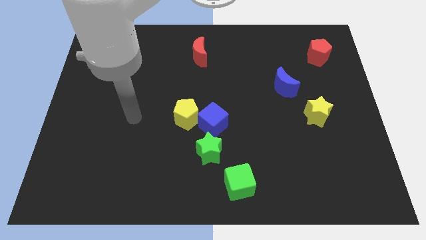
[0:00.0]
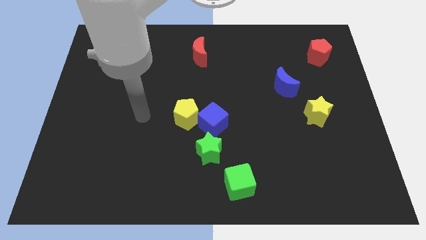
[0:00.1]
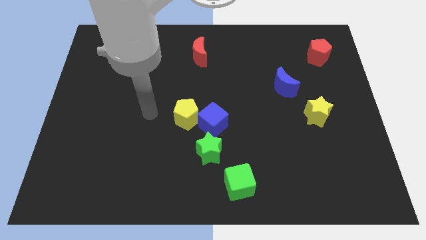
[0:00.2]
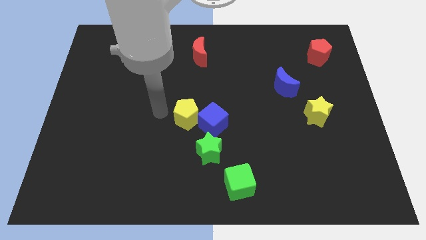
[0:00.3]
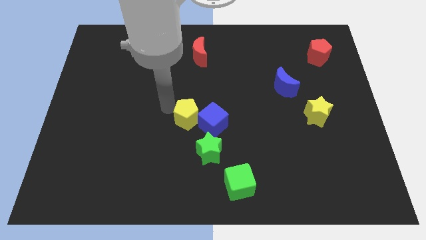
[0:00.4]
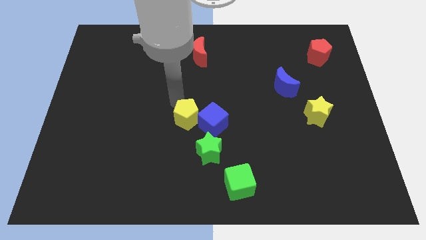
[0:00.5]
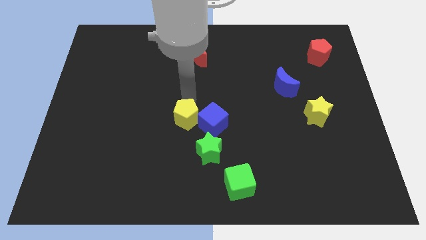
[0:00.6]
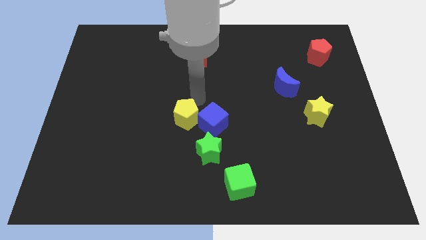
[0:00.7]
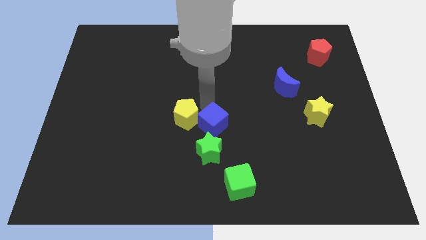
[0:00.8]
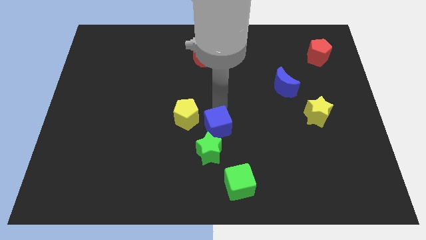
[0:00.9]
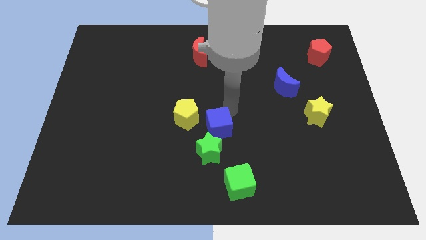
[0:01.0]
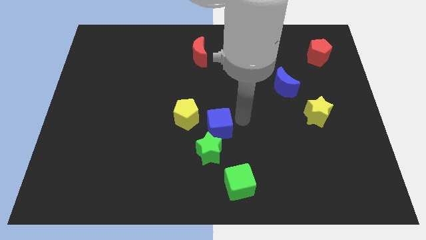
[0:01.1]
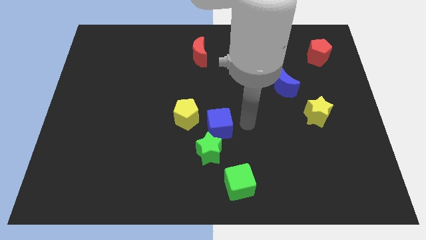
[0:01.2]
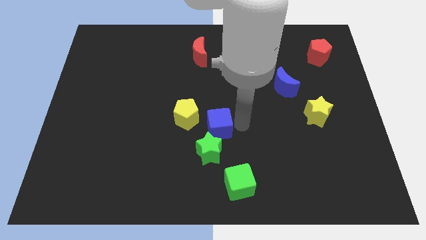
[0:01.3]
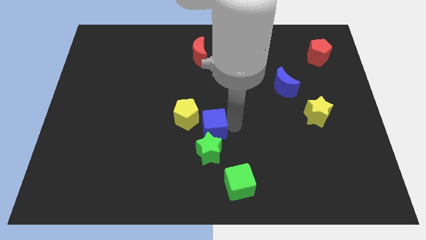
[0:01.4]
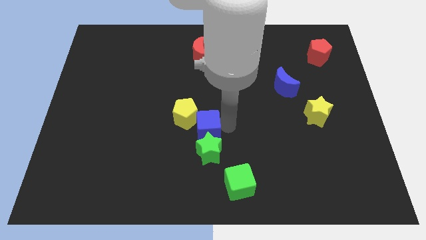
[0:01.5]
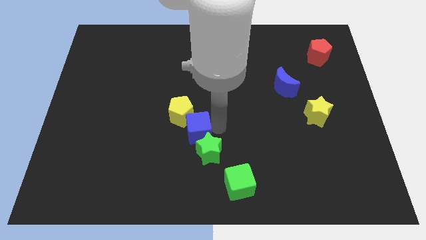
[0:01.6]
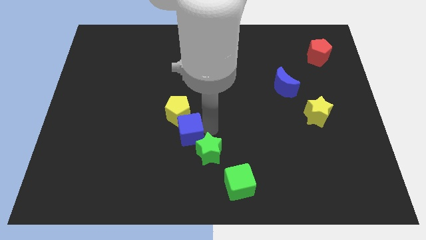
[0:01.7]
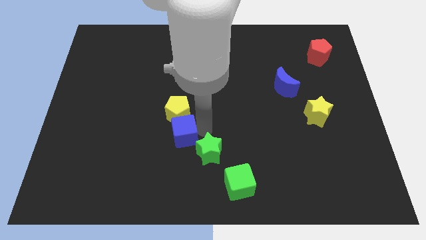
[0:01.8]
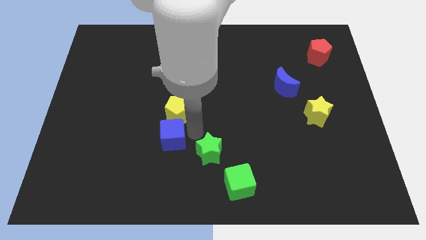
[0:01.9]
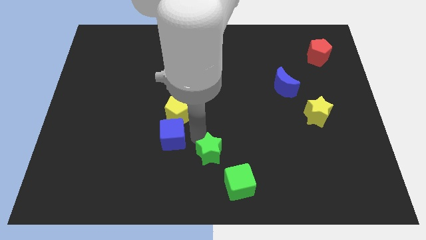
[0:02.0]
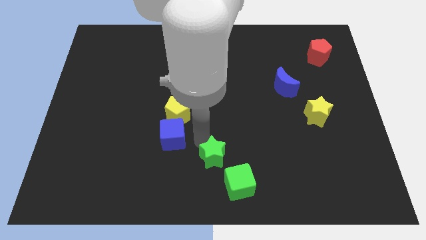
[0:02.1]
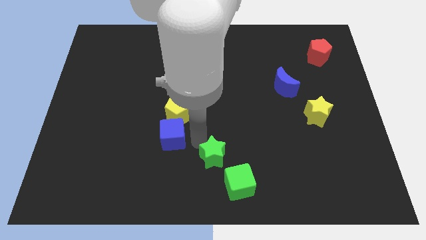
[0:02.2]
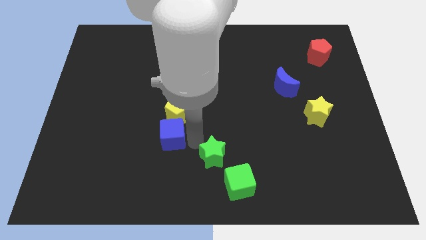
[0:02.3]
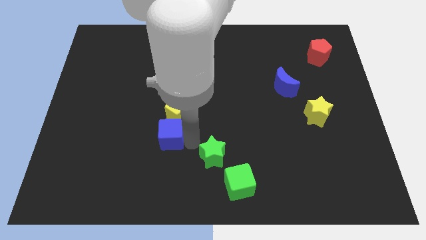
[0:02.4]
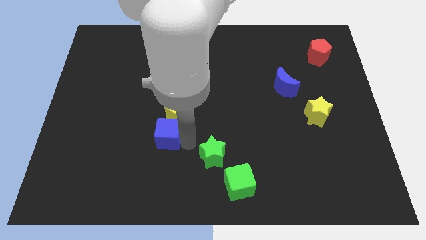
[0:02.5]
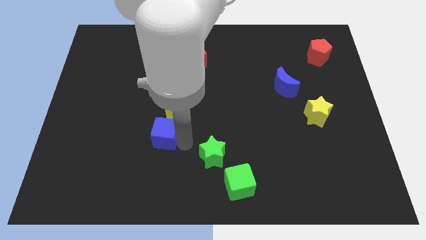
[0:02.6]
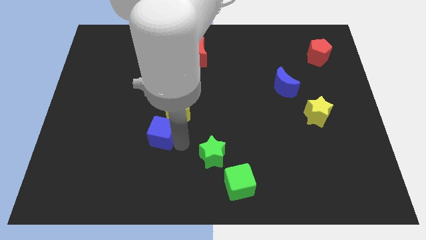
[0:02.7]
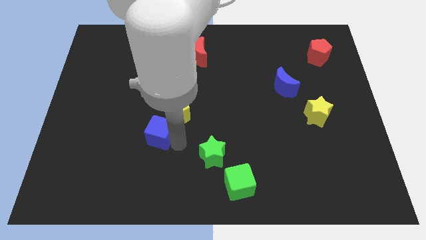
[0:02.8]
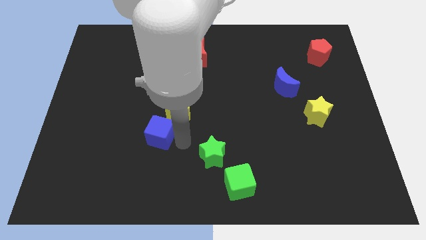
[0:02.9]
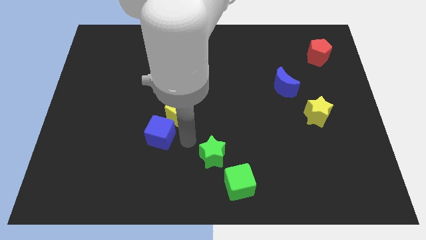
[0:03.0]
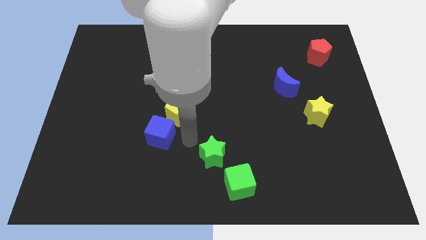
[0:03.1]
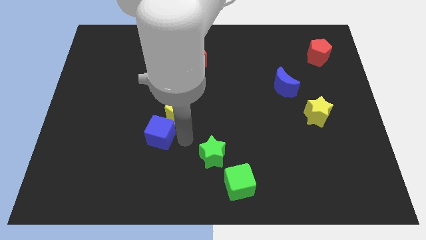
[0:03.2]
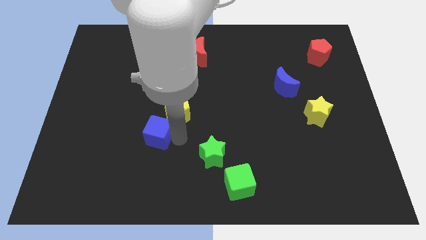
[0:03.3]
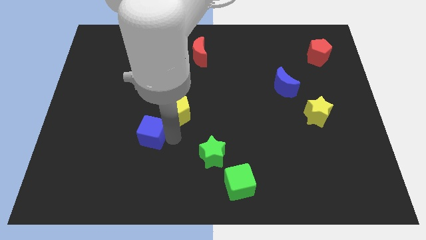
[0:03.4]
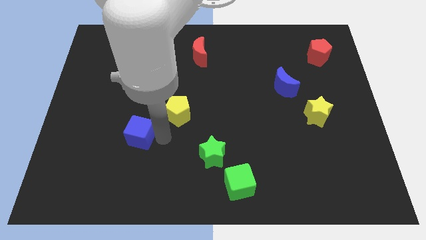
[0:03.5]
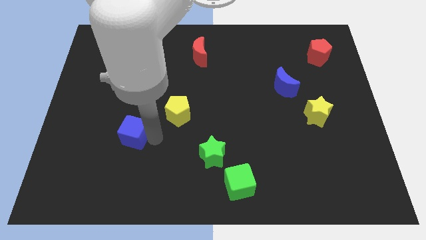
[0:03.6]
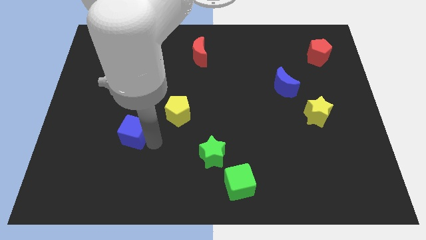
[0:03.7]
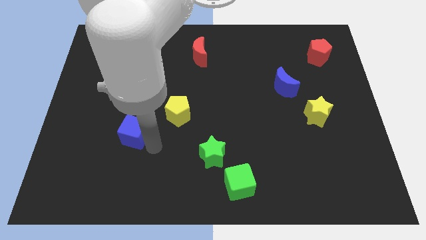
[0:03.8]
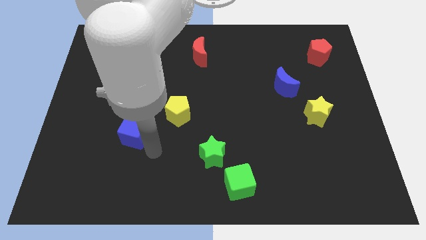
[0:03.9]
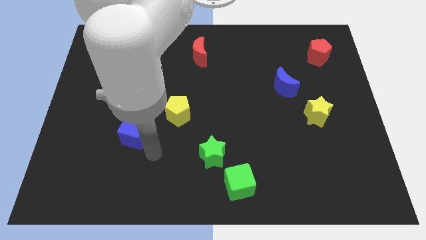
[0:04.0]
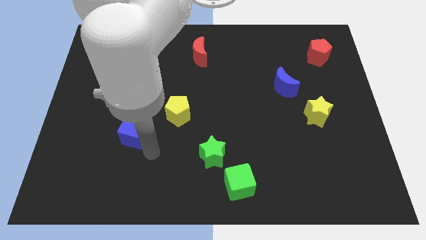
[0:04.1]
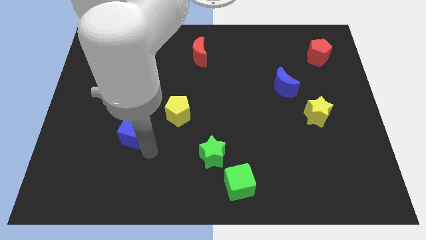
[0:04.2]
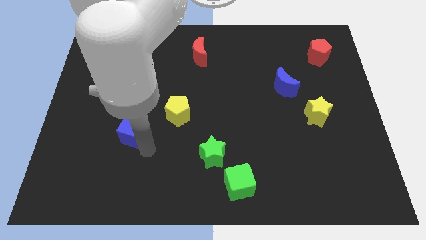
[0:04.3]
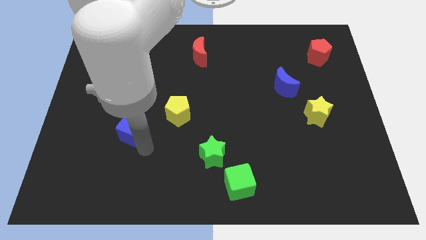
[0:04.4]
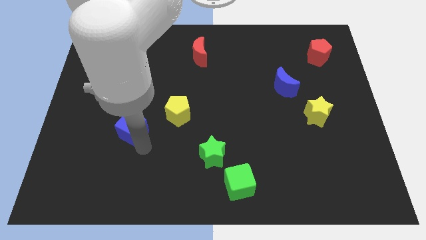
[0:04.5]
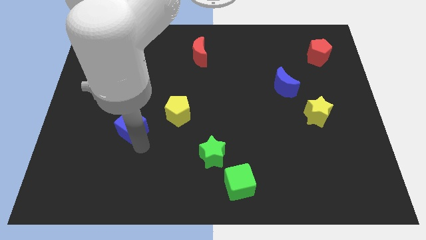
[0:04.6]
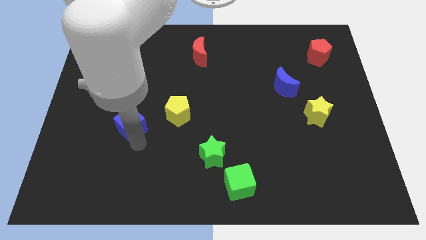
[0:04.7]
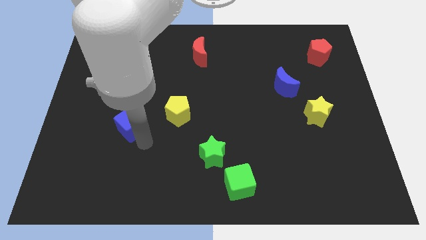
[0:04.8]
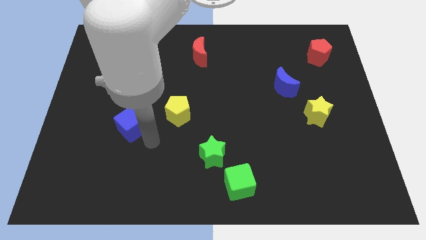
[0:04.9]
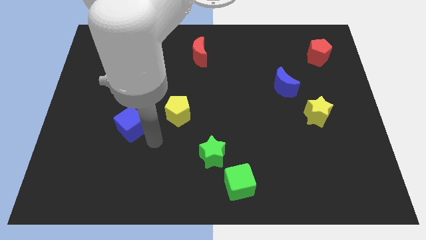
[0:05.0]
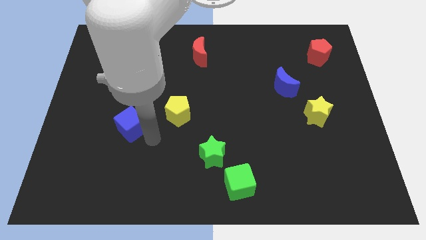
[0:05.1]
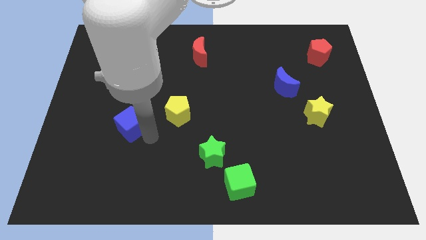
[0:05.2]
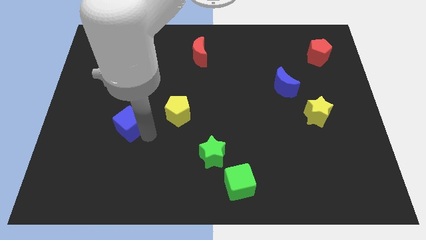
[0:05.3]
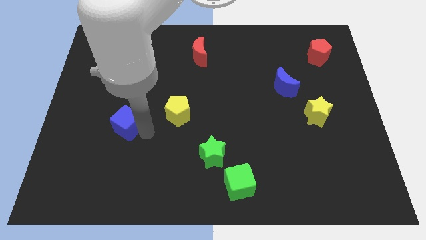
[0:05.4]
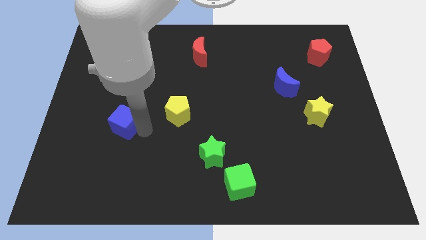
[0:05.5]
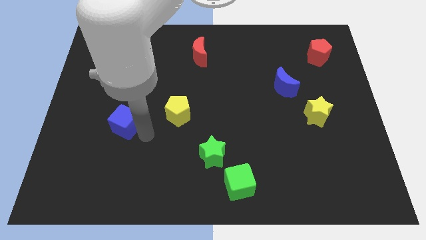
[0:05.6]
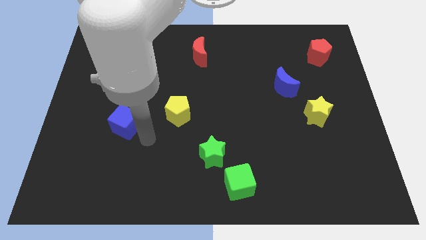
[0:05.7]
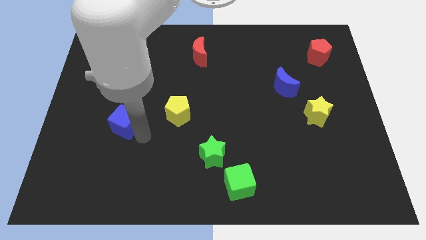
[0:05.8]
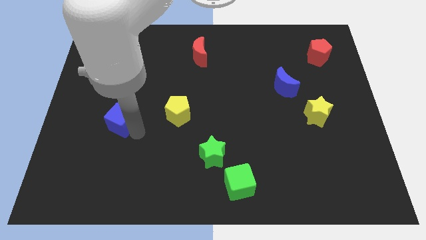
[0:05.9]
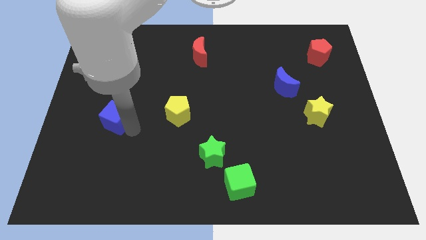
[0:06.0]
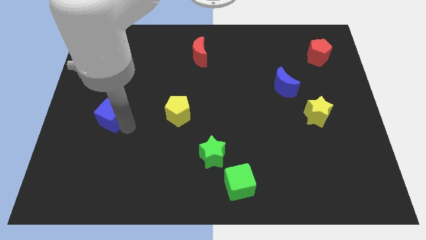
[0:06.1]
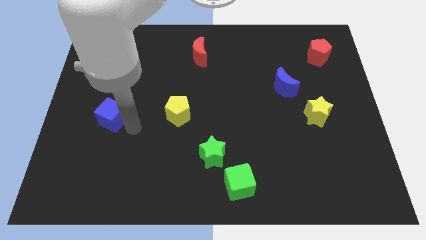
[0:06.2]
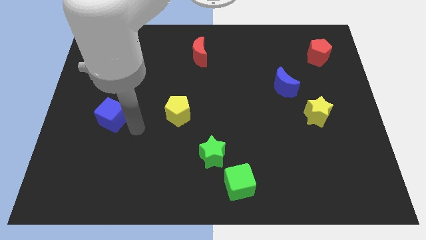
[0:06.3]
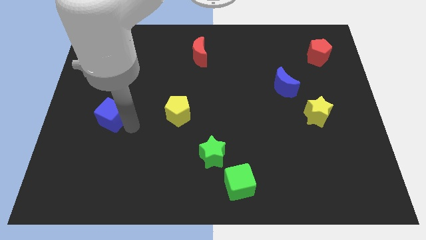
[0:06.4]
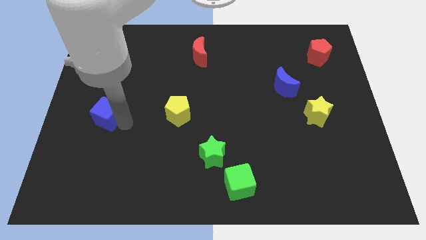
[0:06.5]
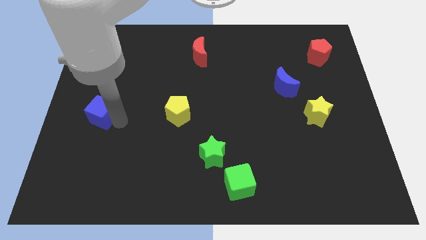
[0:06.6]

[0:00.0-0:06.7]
move the blue cube to the center left
